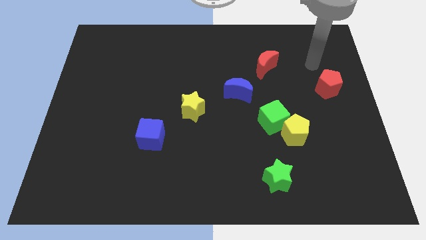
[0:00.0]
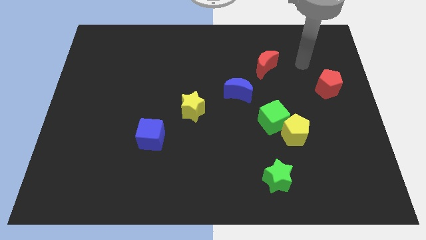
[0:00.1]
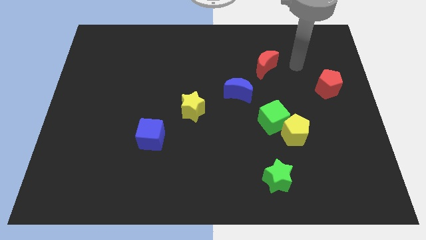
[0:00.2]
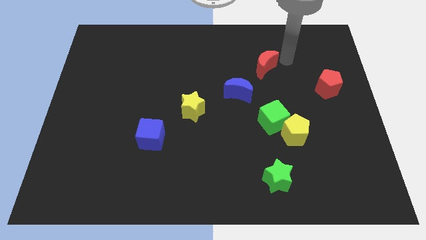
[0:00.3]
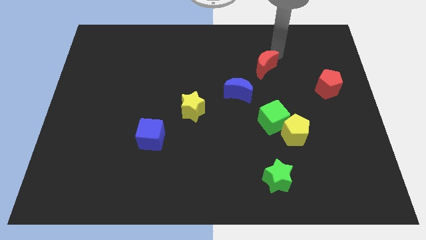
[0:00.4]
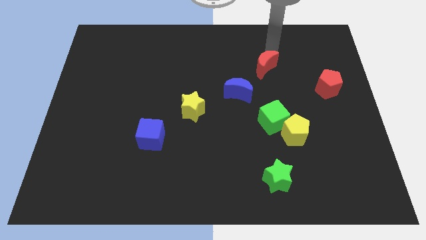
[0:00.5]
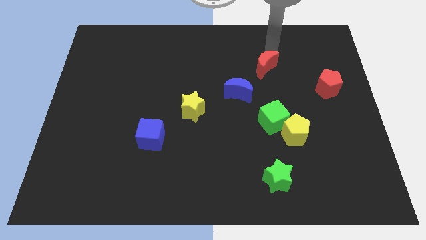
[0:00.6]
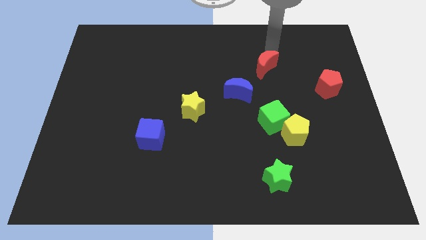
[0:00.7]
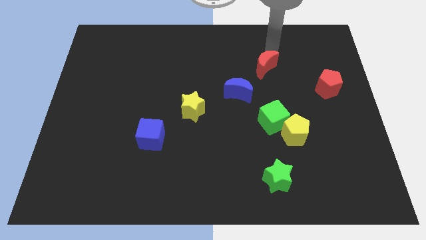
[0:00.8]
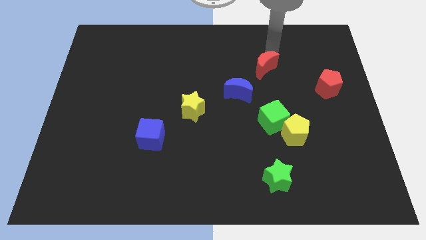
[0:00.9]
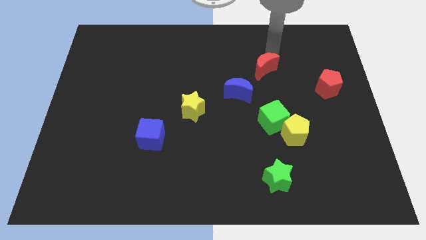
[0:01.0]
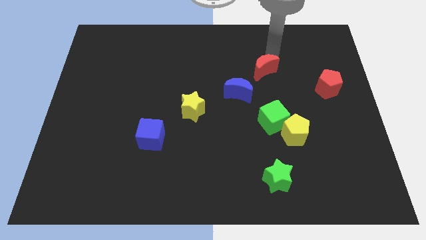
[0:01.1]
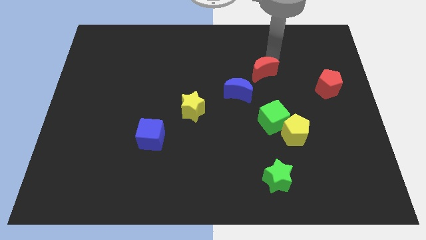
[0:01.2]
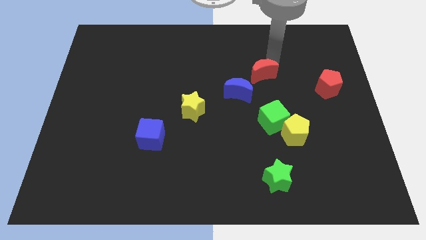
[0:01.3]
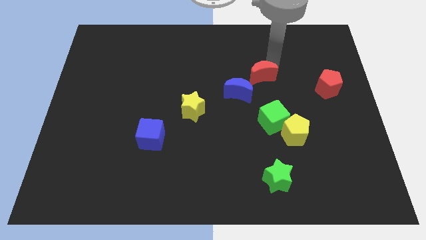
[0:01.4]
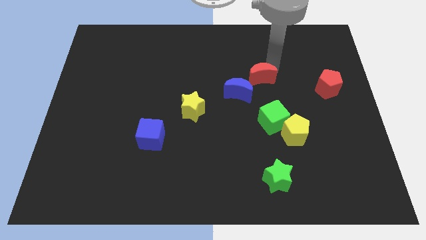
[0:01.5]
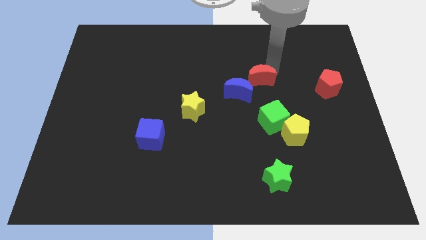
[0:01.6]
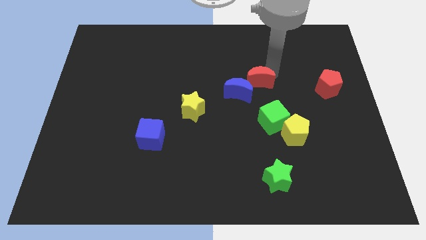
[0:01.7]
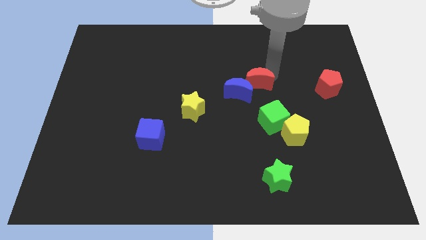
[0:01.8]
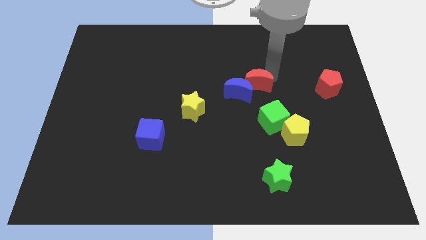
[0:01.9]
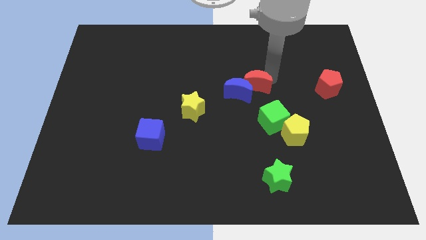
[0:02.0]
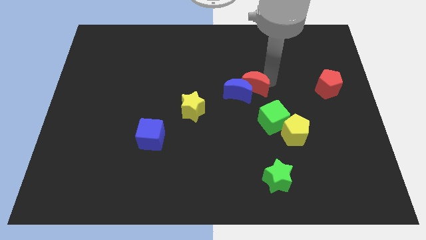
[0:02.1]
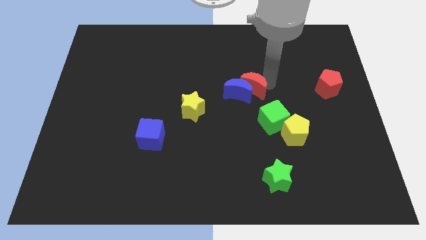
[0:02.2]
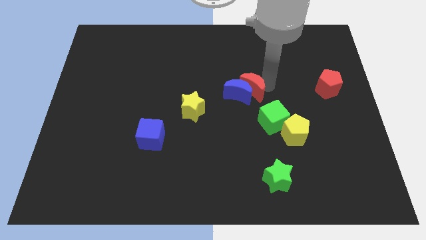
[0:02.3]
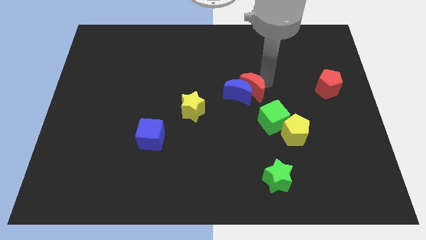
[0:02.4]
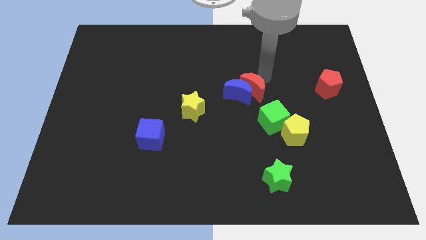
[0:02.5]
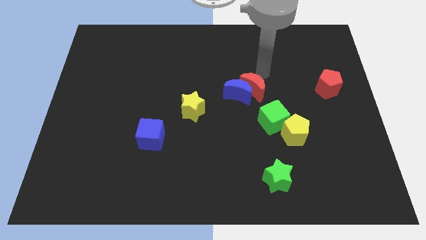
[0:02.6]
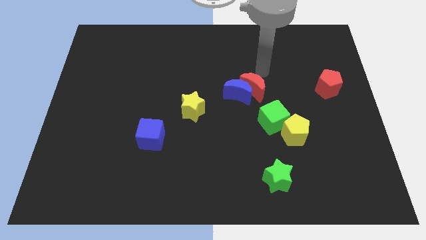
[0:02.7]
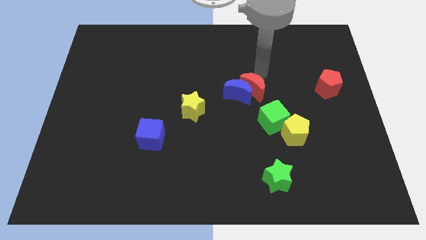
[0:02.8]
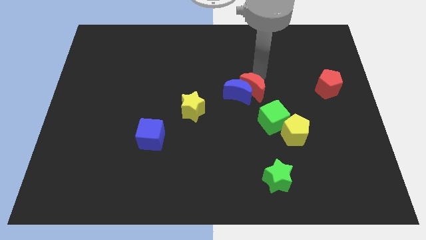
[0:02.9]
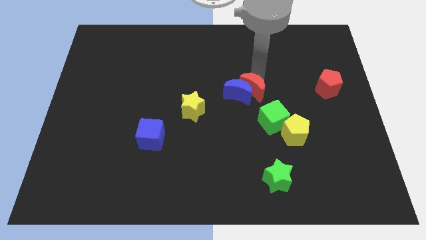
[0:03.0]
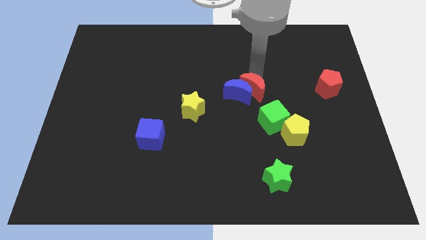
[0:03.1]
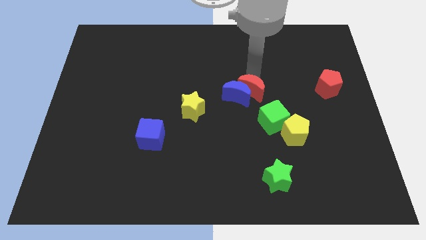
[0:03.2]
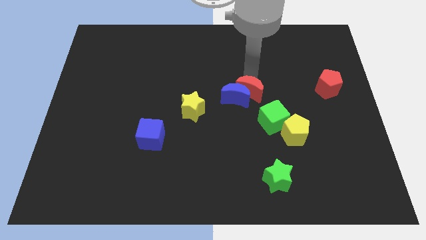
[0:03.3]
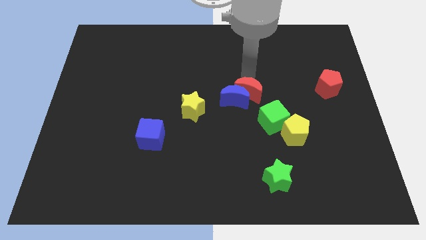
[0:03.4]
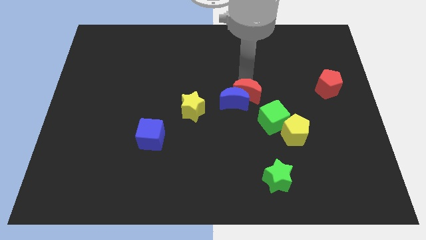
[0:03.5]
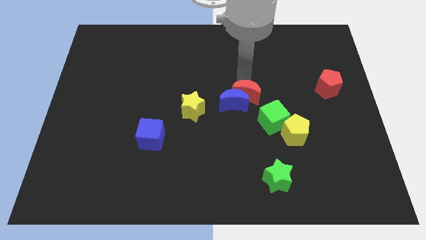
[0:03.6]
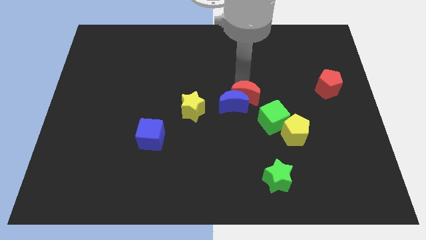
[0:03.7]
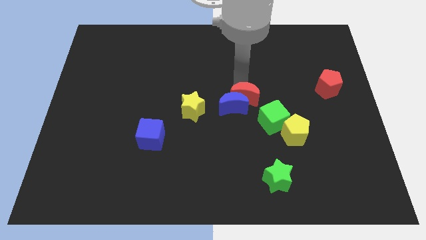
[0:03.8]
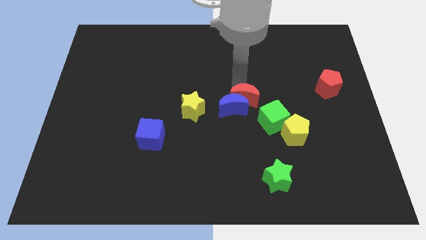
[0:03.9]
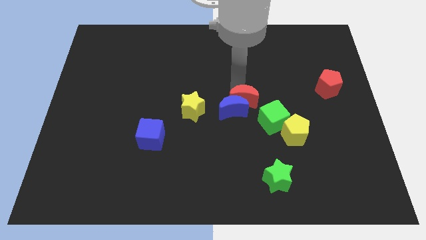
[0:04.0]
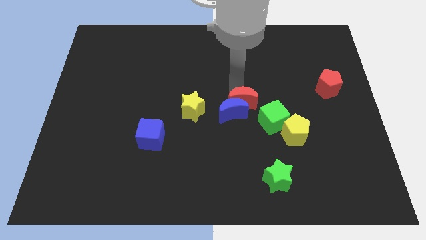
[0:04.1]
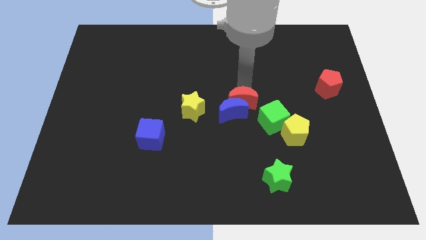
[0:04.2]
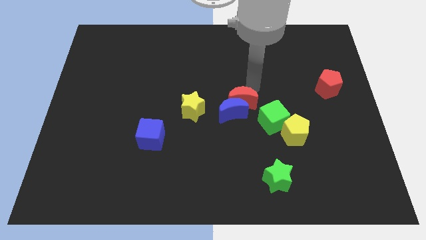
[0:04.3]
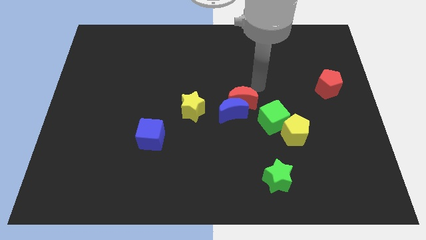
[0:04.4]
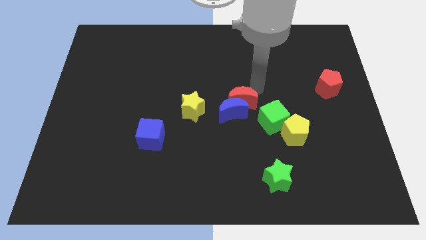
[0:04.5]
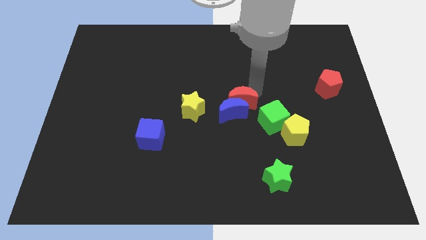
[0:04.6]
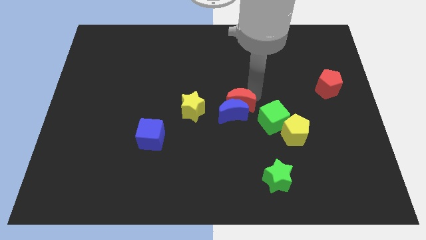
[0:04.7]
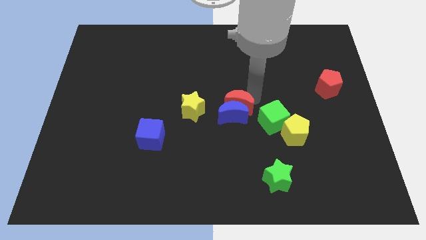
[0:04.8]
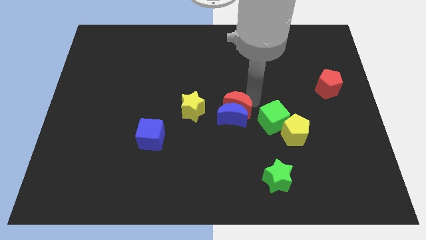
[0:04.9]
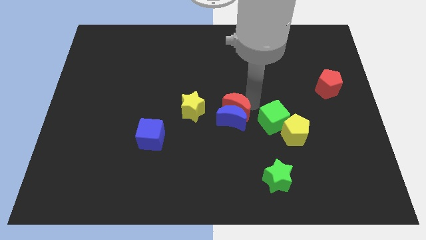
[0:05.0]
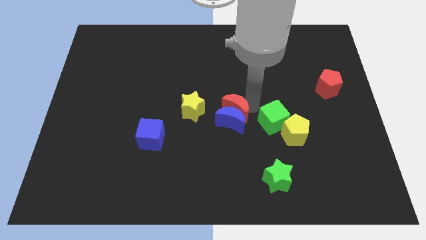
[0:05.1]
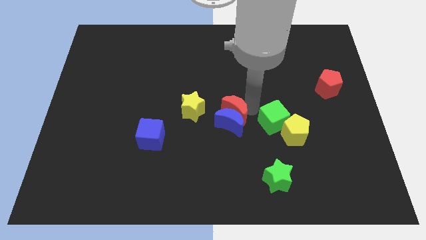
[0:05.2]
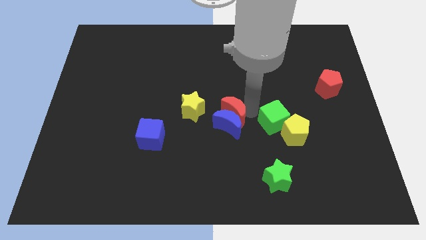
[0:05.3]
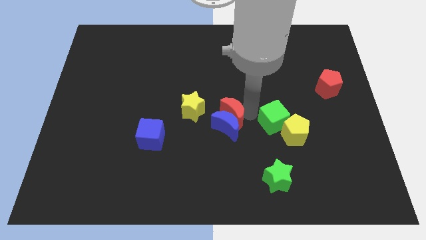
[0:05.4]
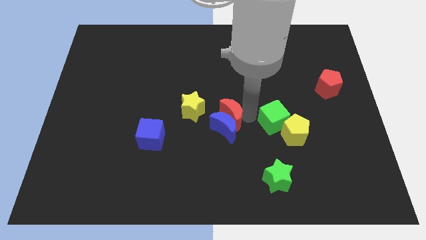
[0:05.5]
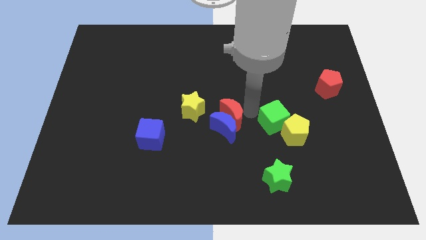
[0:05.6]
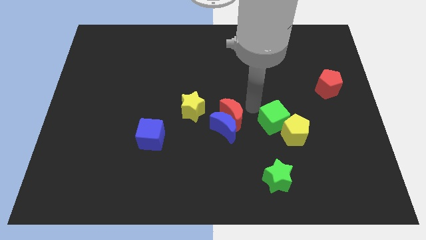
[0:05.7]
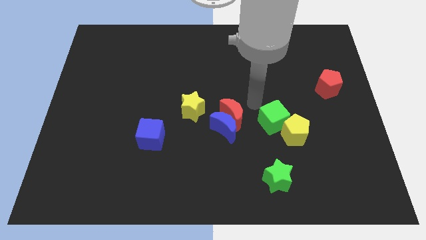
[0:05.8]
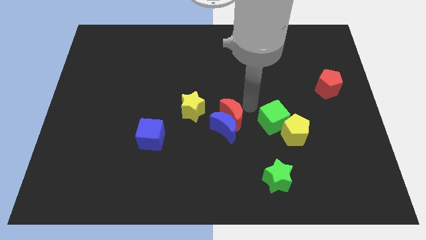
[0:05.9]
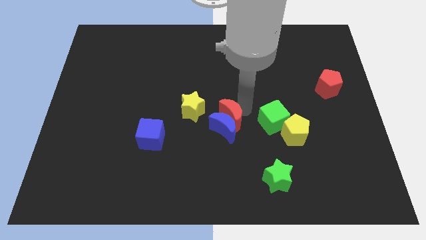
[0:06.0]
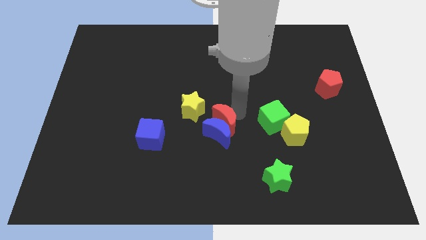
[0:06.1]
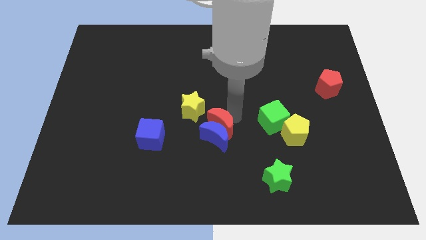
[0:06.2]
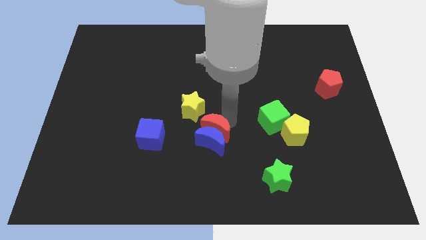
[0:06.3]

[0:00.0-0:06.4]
push the red moon to the right side of the blue cube

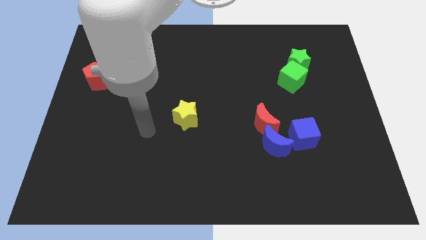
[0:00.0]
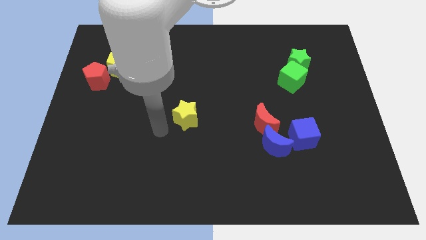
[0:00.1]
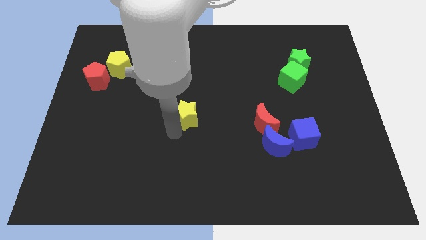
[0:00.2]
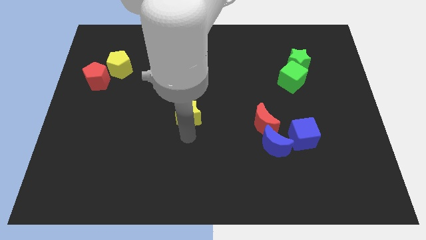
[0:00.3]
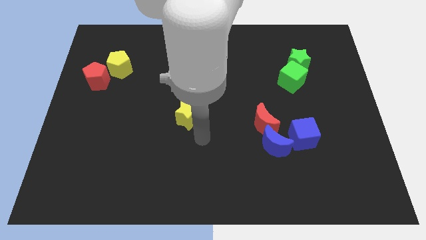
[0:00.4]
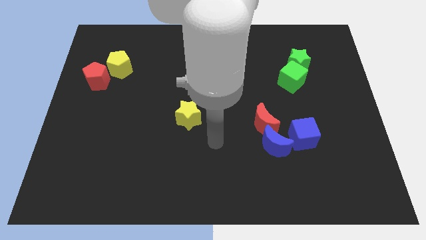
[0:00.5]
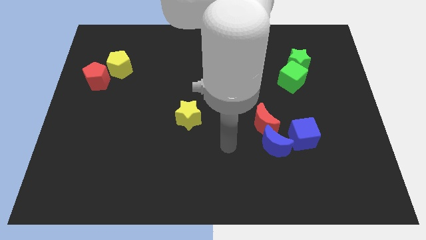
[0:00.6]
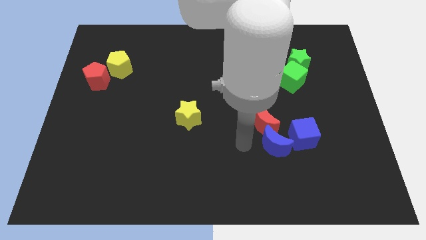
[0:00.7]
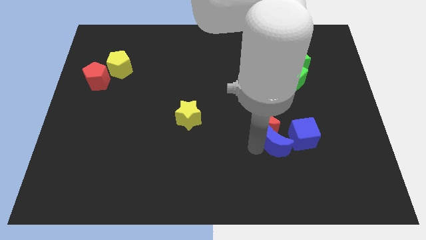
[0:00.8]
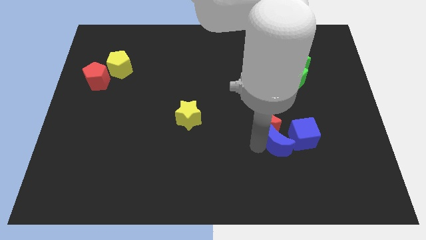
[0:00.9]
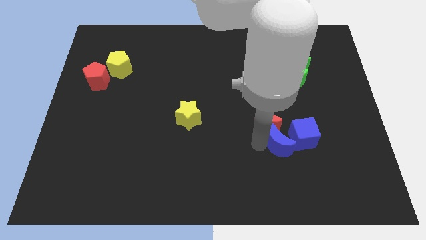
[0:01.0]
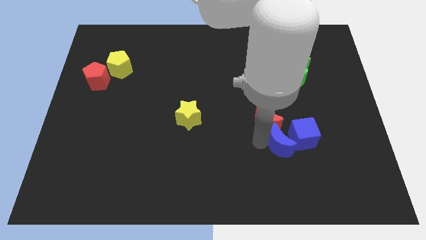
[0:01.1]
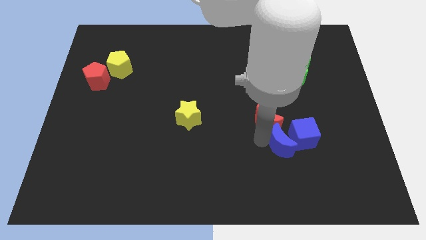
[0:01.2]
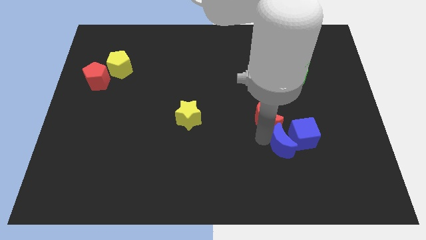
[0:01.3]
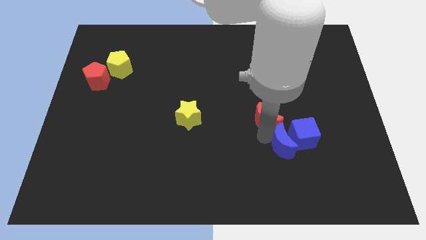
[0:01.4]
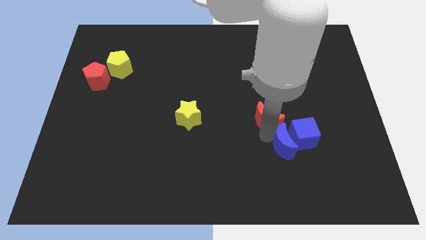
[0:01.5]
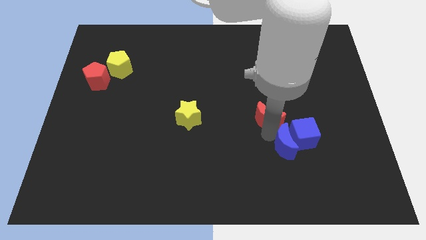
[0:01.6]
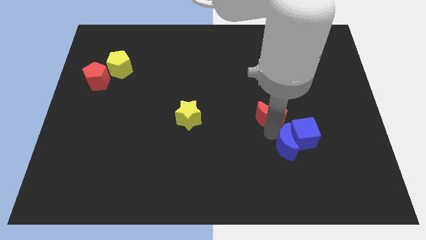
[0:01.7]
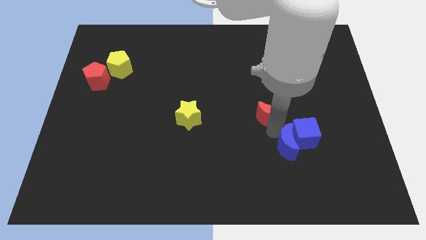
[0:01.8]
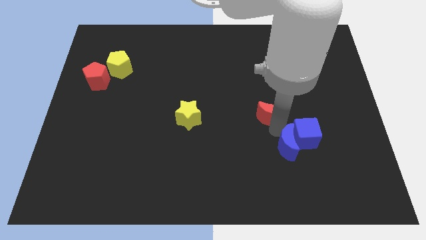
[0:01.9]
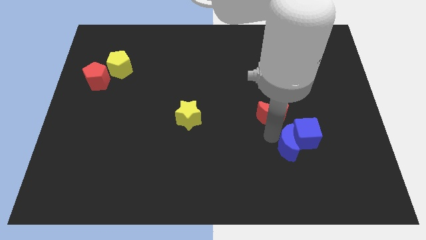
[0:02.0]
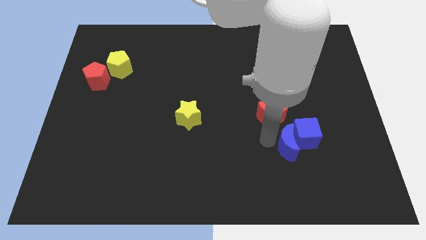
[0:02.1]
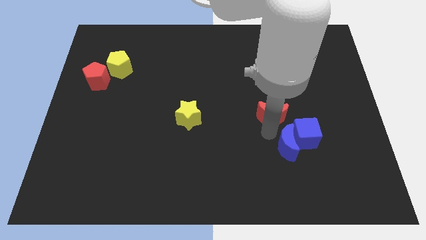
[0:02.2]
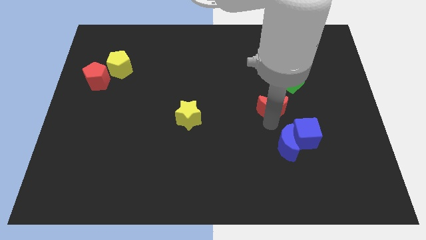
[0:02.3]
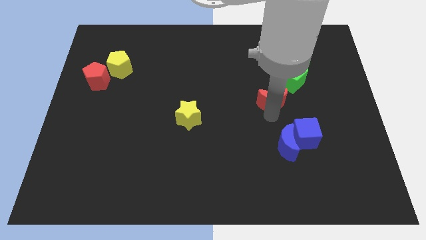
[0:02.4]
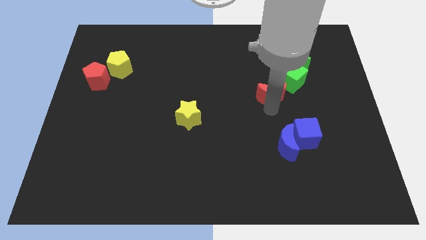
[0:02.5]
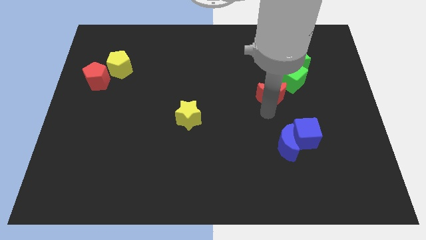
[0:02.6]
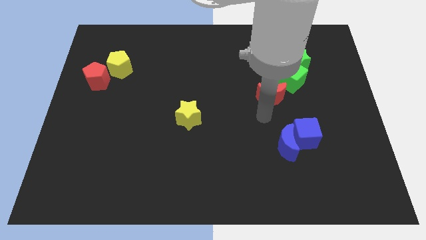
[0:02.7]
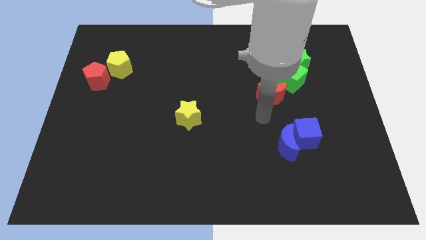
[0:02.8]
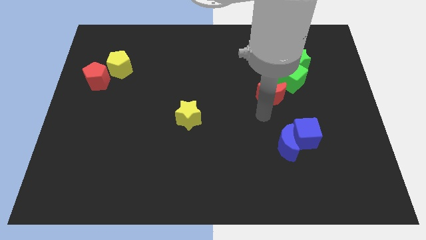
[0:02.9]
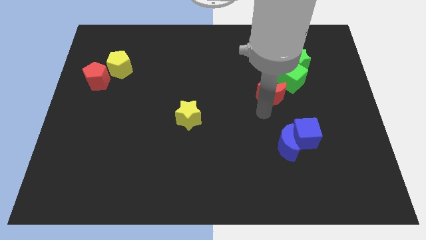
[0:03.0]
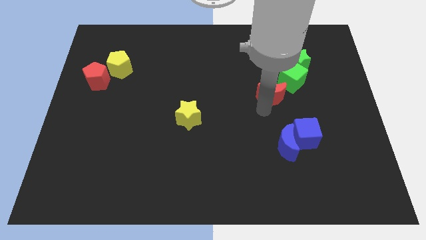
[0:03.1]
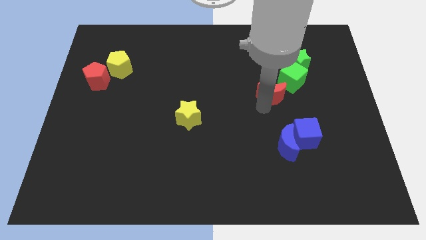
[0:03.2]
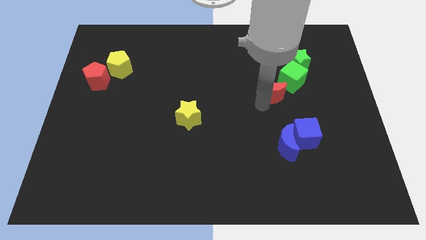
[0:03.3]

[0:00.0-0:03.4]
slide the red moon to the bottom left side of the green star
